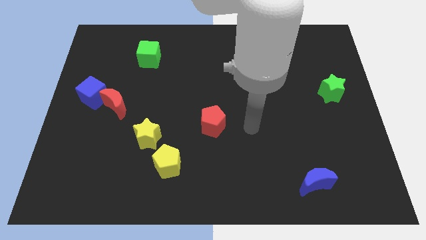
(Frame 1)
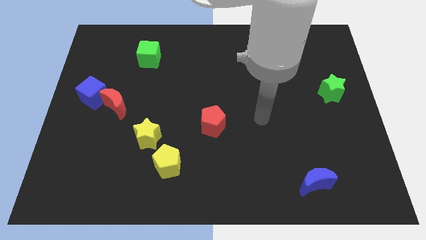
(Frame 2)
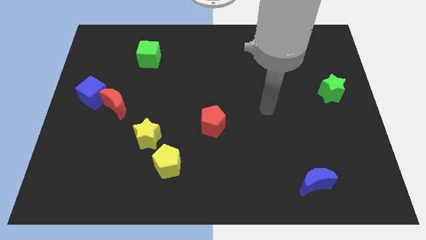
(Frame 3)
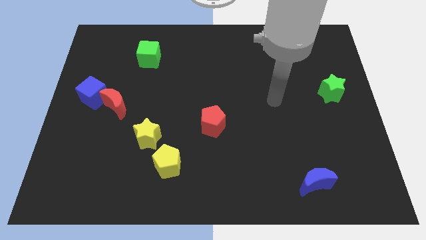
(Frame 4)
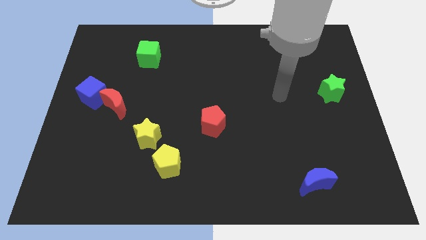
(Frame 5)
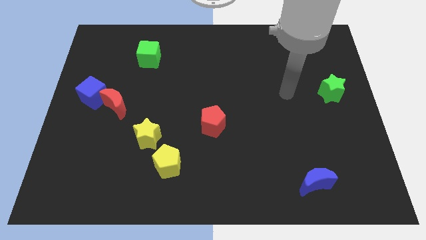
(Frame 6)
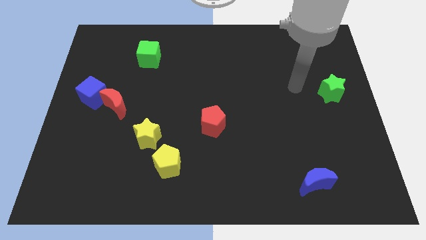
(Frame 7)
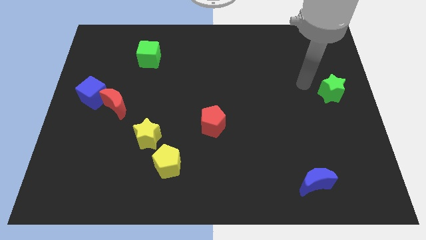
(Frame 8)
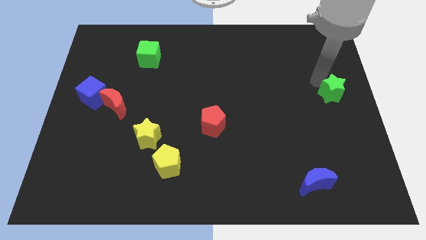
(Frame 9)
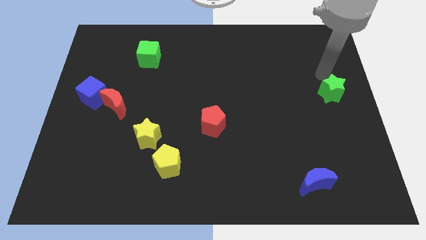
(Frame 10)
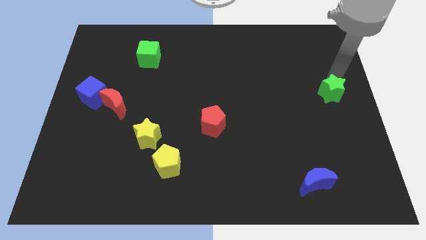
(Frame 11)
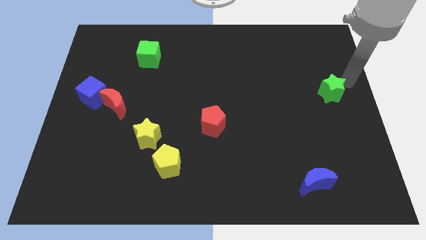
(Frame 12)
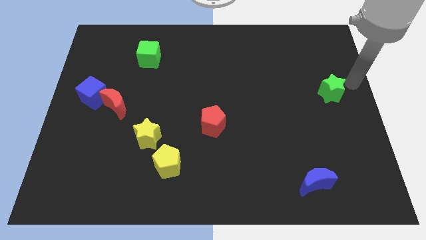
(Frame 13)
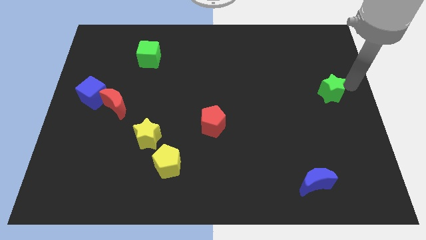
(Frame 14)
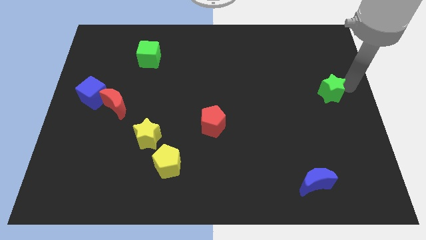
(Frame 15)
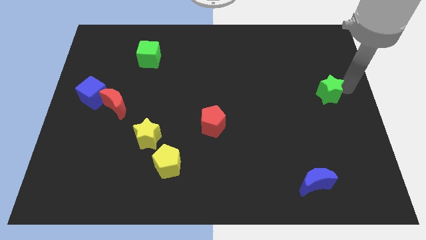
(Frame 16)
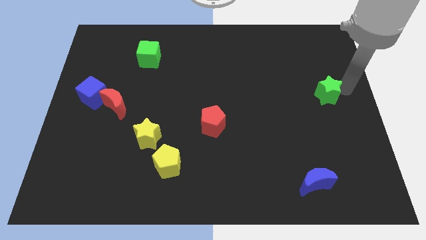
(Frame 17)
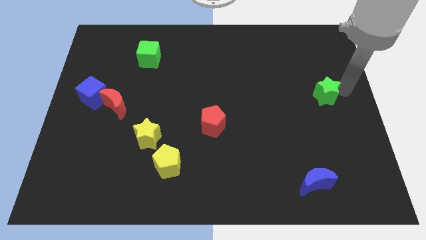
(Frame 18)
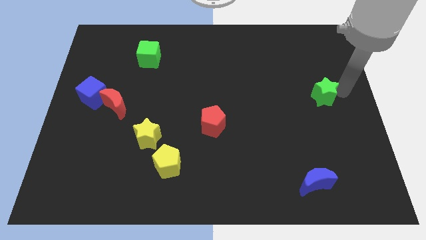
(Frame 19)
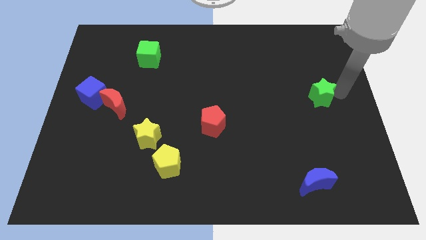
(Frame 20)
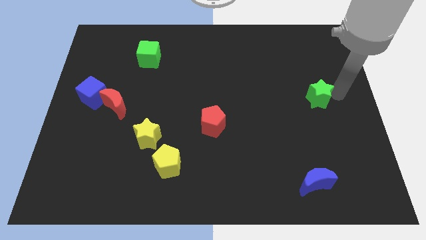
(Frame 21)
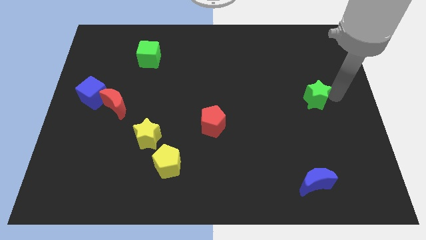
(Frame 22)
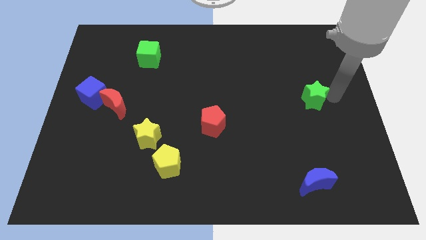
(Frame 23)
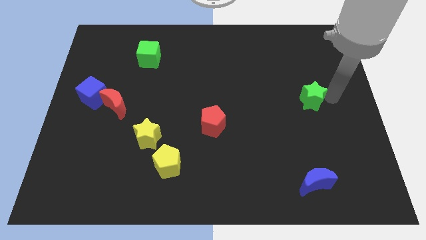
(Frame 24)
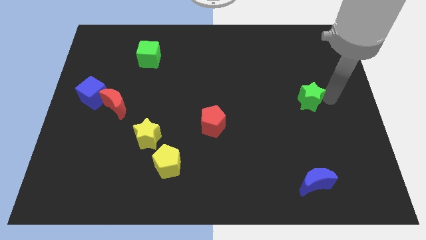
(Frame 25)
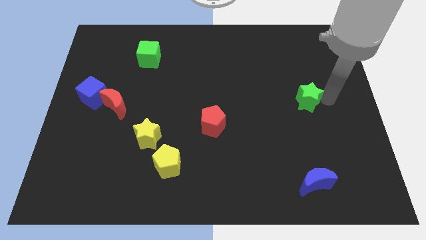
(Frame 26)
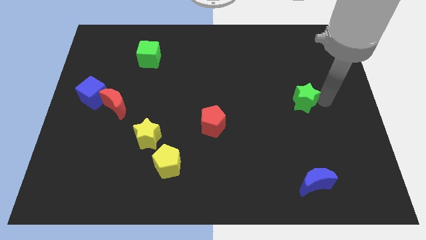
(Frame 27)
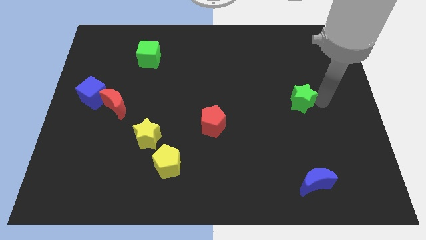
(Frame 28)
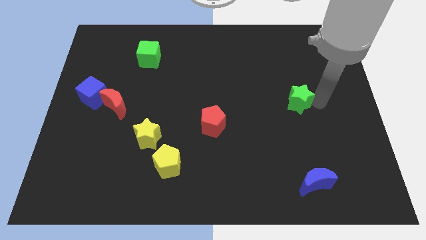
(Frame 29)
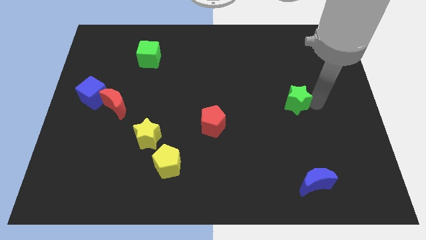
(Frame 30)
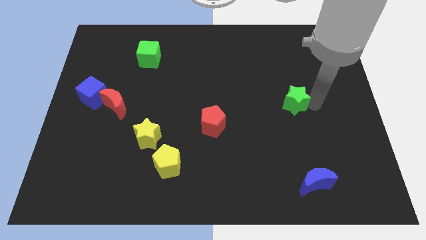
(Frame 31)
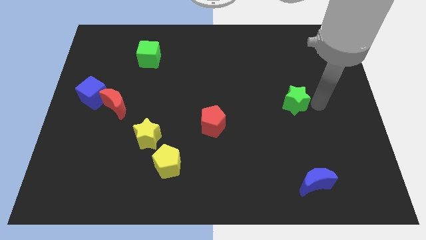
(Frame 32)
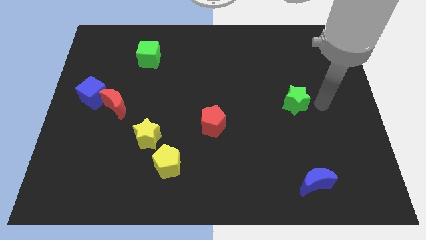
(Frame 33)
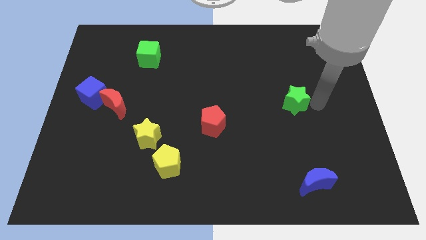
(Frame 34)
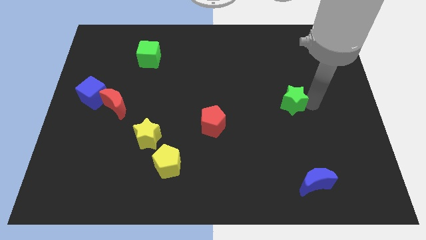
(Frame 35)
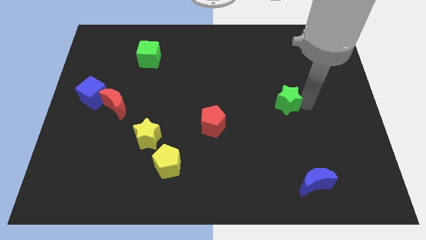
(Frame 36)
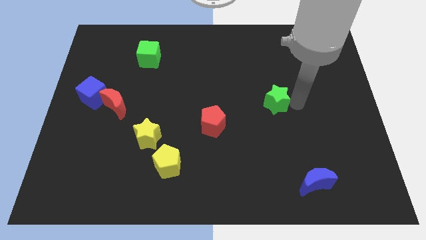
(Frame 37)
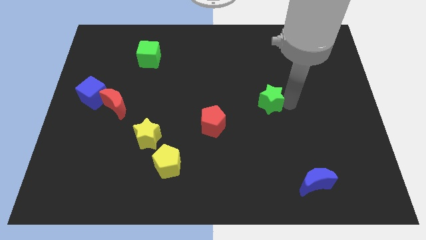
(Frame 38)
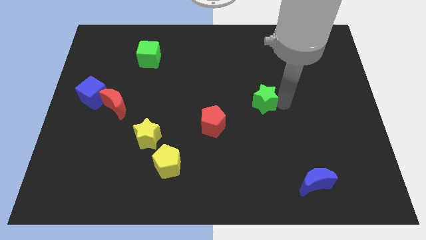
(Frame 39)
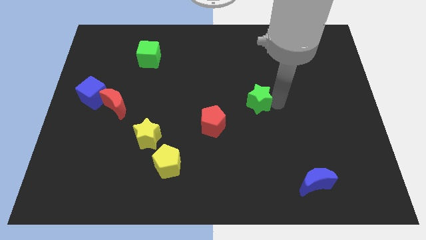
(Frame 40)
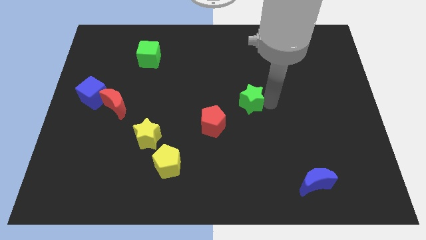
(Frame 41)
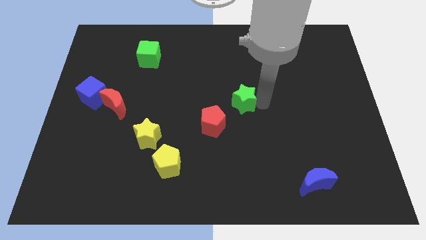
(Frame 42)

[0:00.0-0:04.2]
slide the green star left

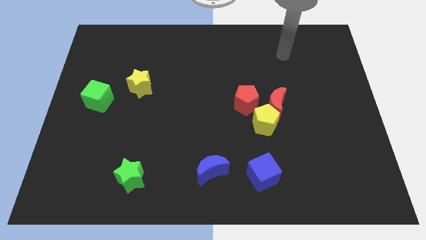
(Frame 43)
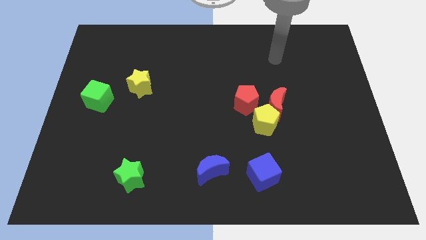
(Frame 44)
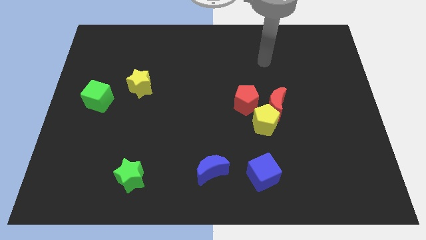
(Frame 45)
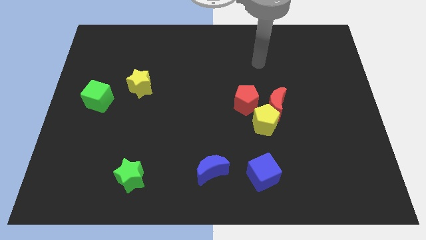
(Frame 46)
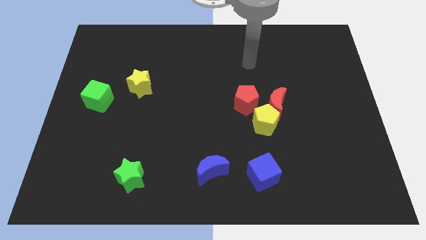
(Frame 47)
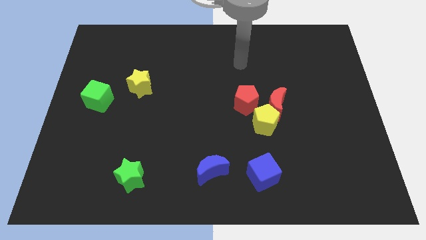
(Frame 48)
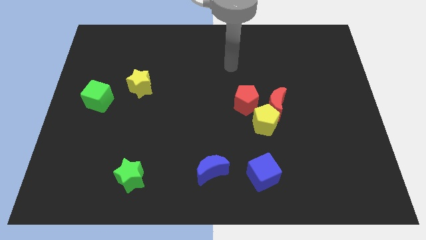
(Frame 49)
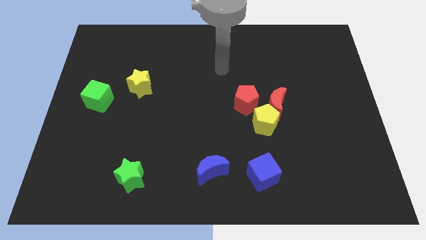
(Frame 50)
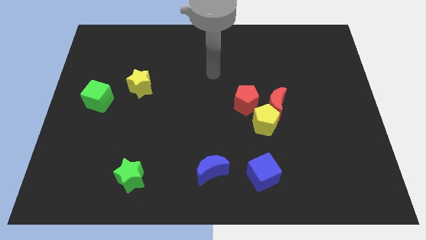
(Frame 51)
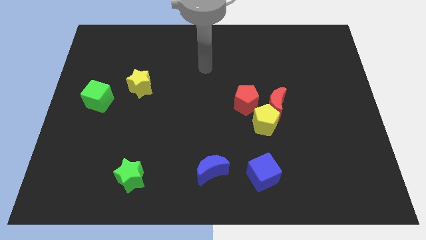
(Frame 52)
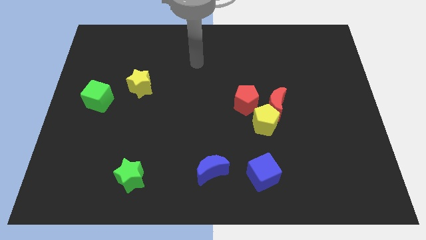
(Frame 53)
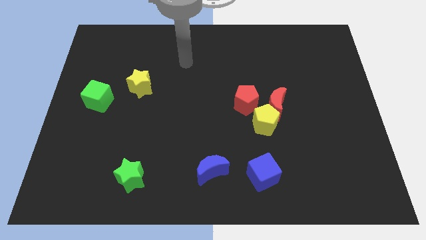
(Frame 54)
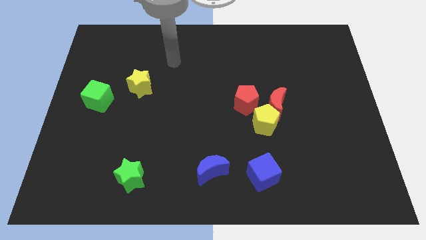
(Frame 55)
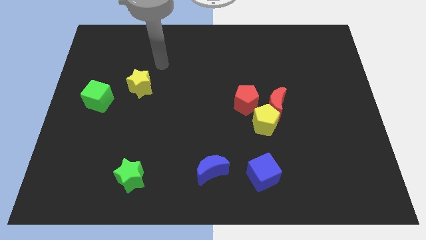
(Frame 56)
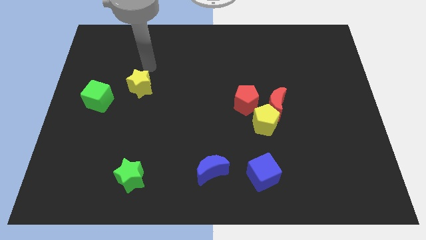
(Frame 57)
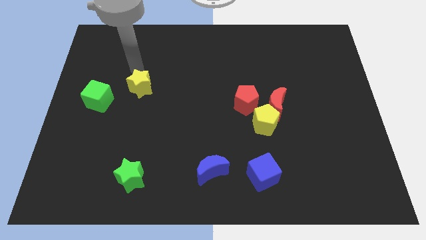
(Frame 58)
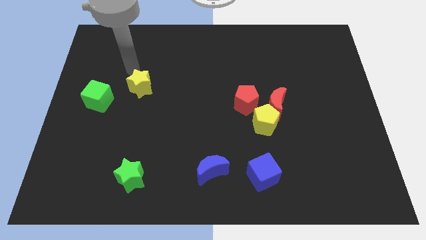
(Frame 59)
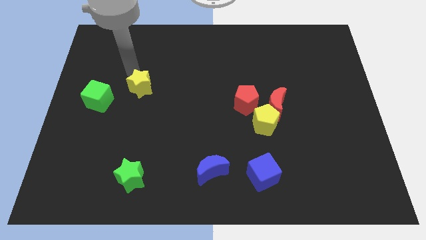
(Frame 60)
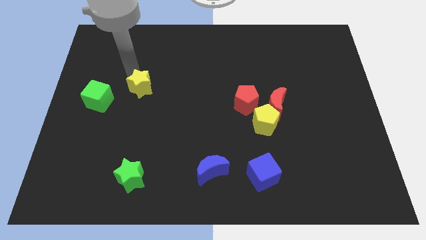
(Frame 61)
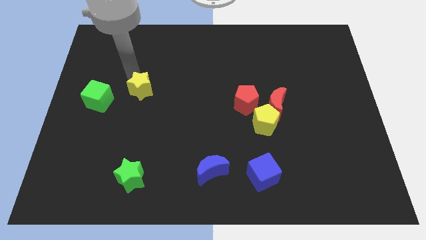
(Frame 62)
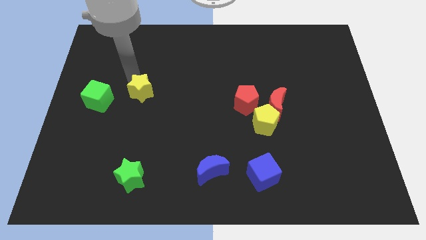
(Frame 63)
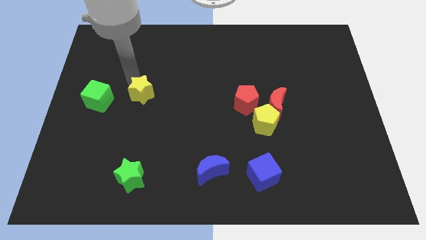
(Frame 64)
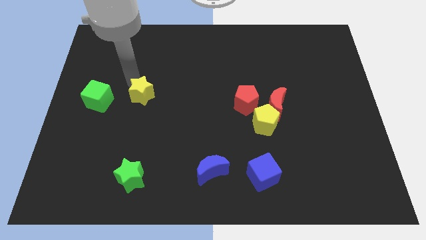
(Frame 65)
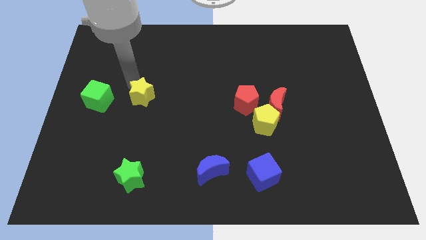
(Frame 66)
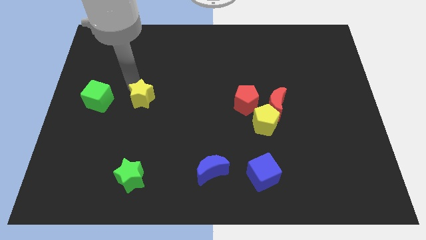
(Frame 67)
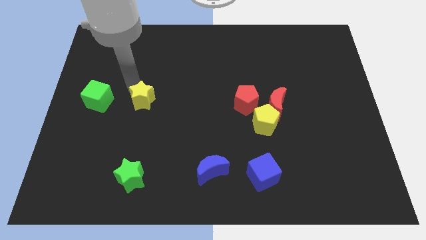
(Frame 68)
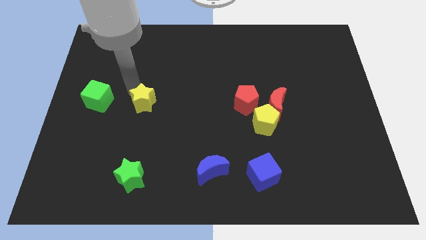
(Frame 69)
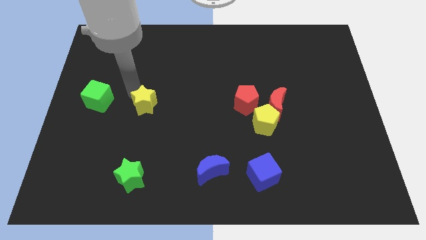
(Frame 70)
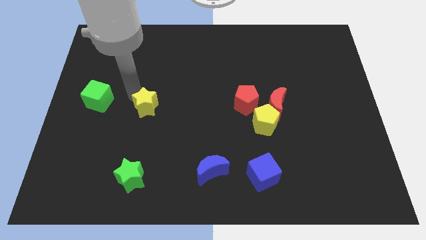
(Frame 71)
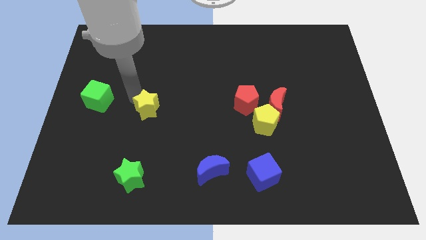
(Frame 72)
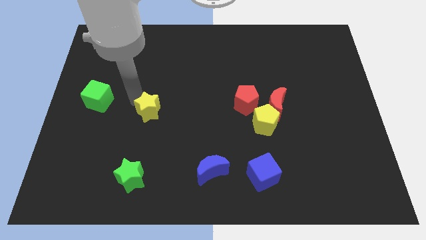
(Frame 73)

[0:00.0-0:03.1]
push the yellow star down and to the right diagonally a little
